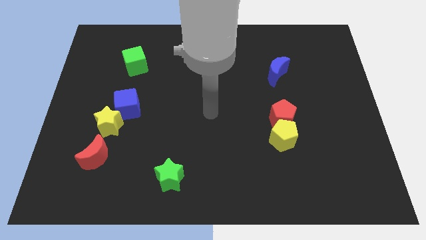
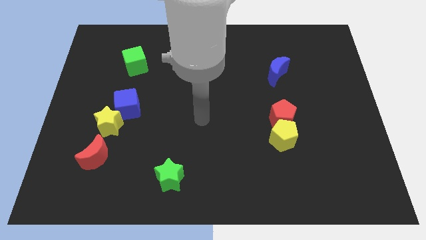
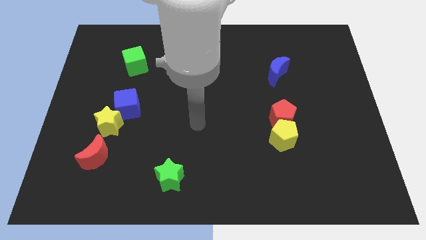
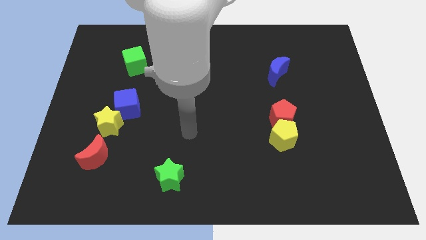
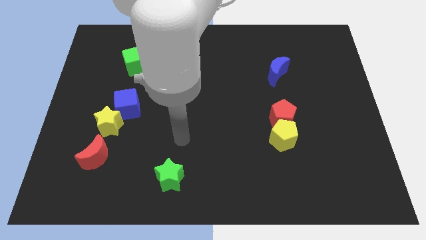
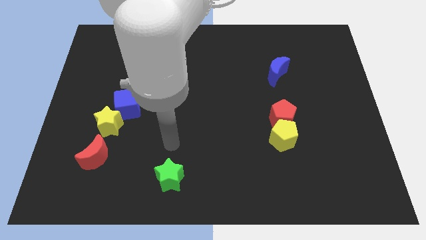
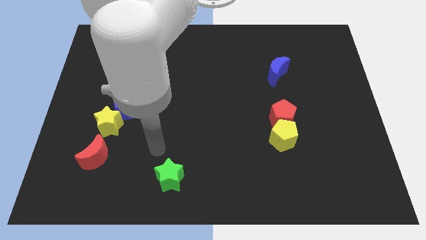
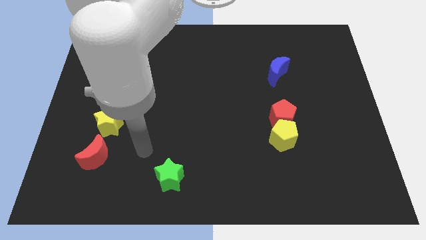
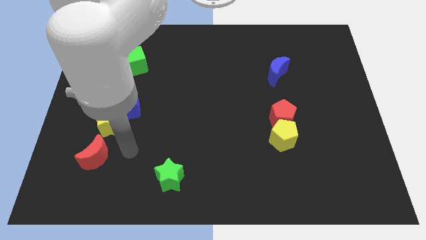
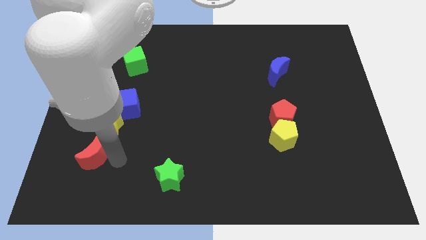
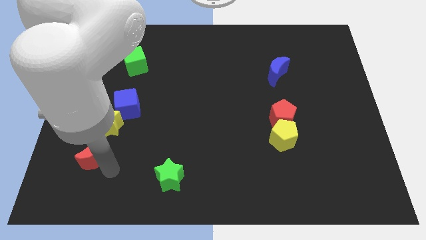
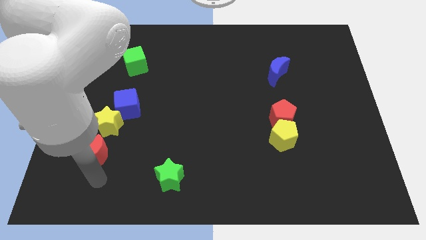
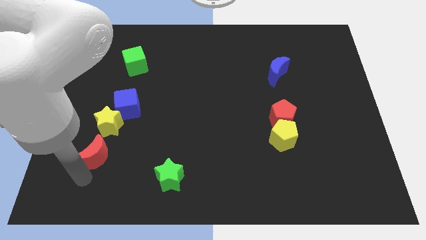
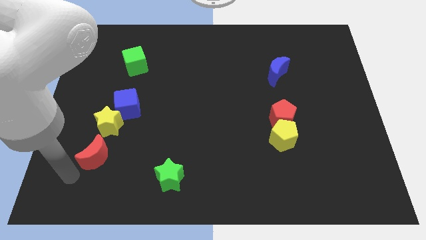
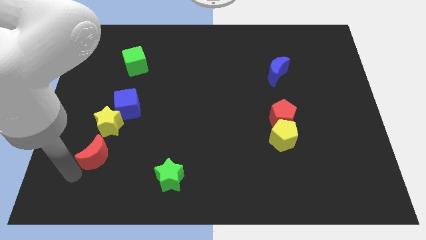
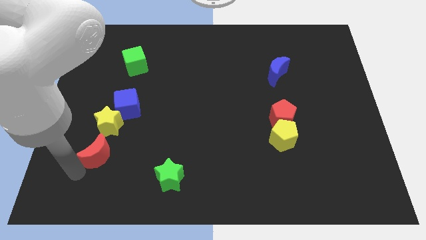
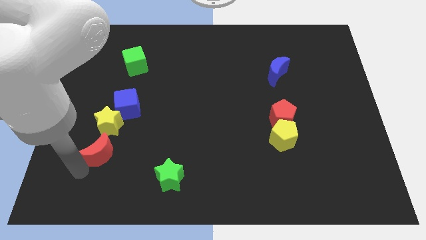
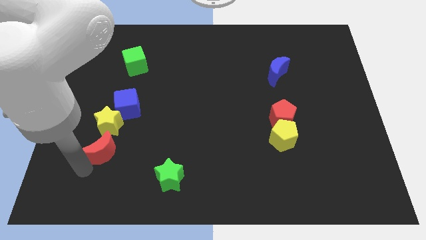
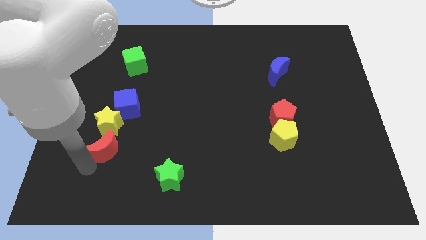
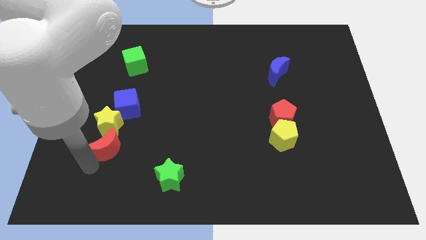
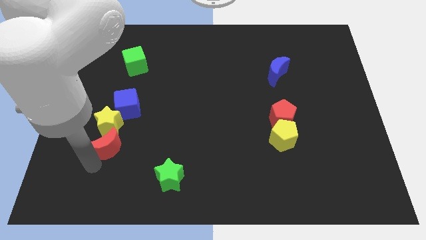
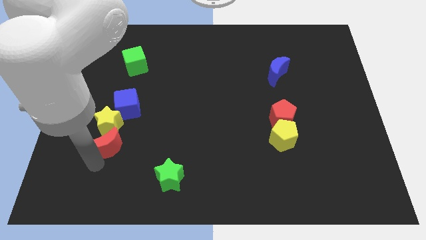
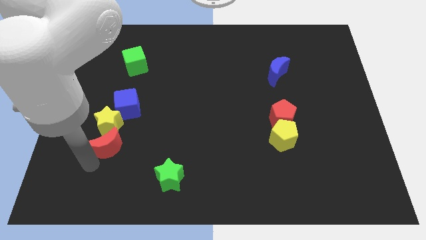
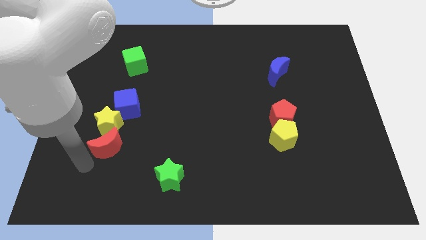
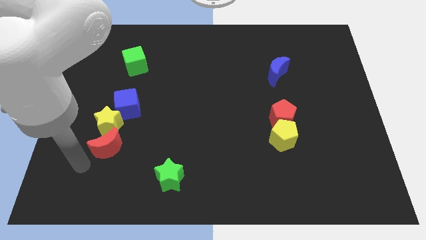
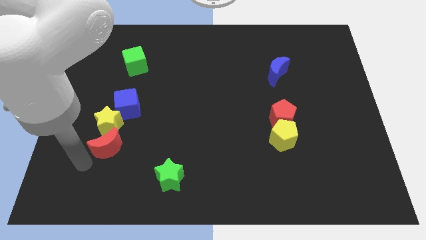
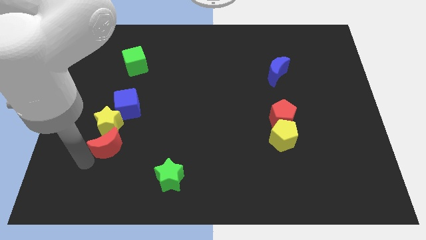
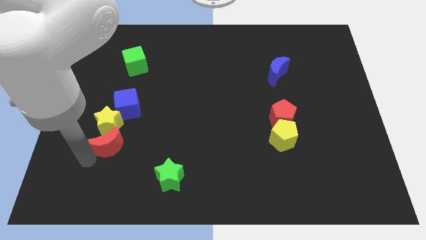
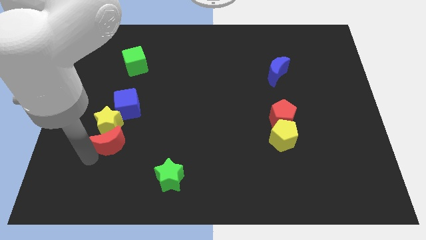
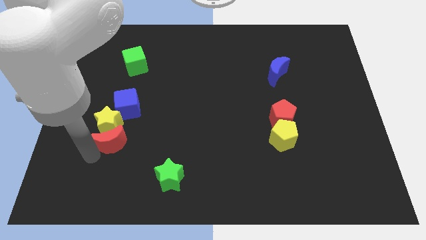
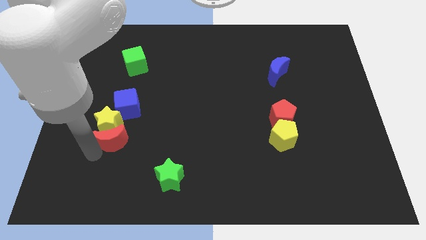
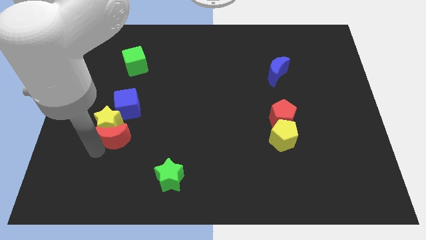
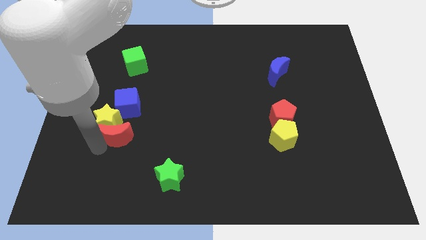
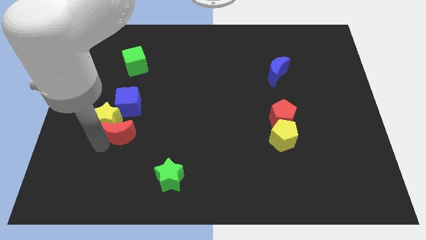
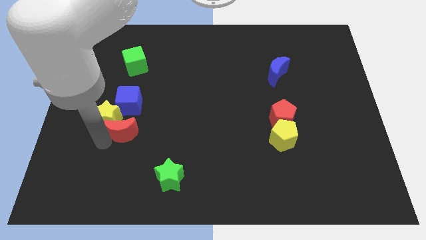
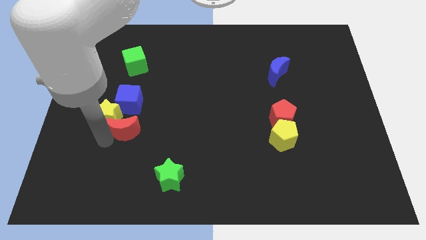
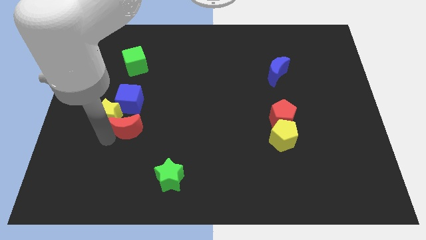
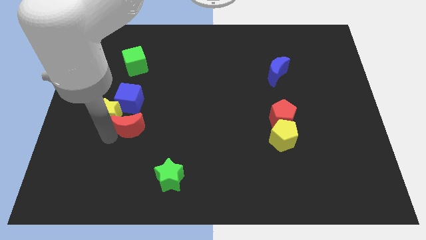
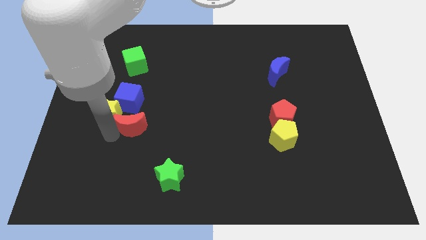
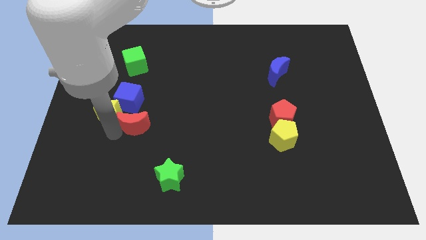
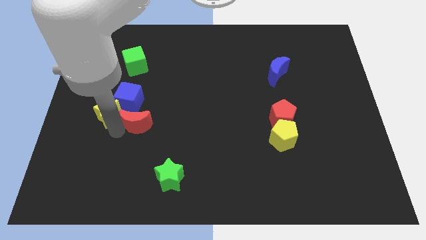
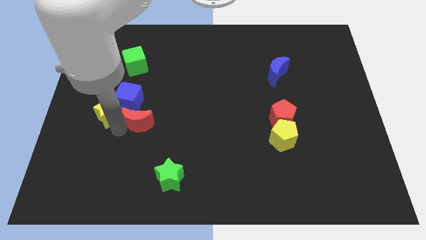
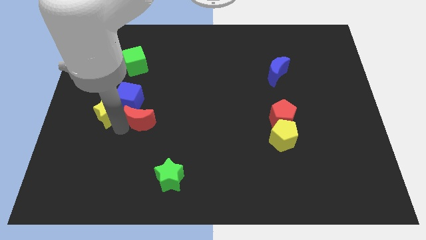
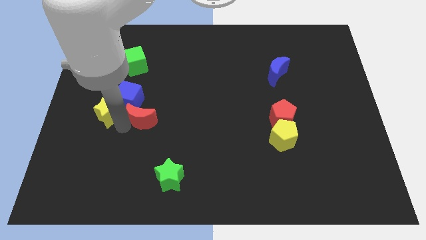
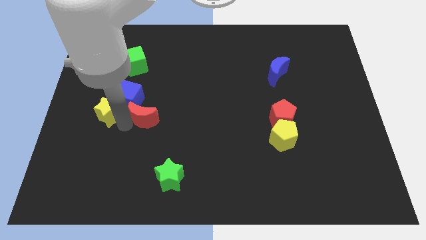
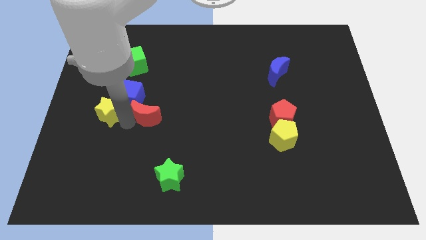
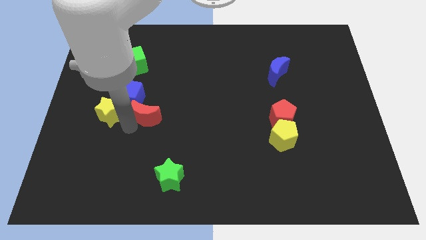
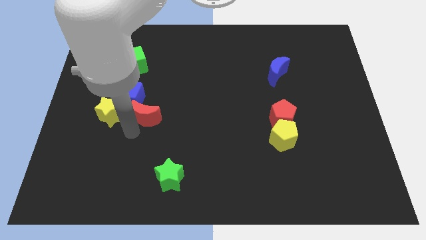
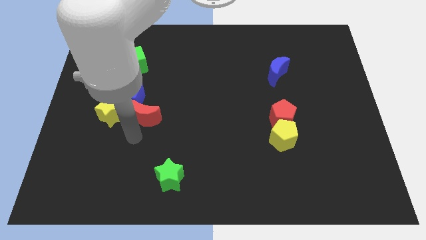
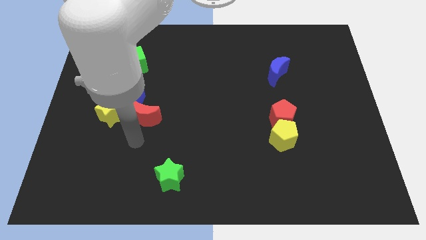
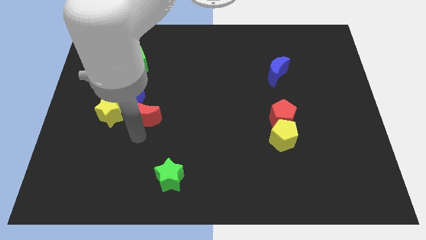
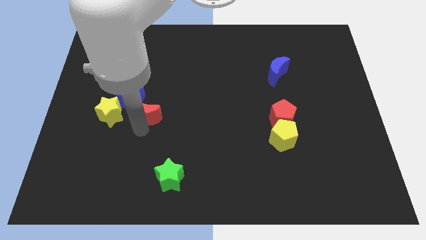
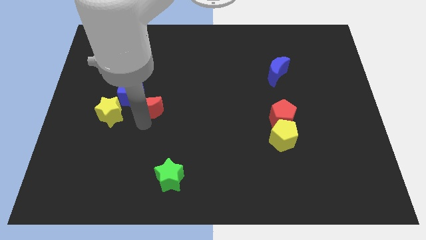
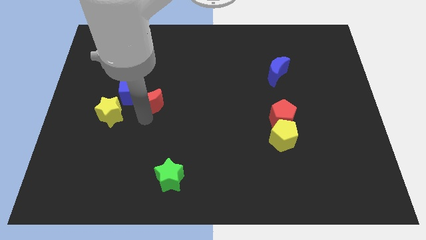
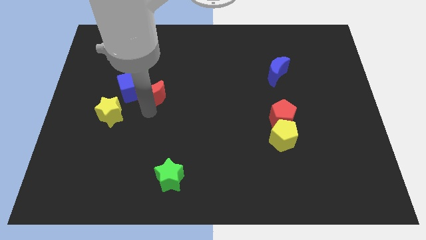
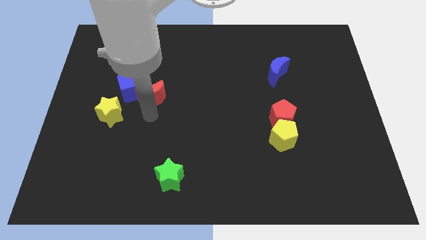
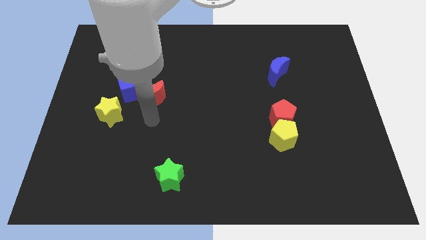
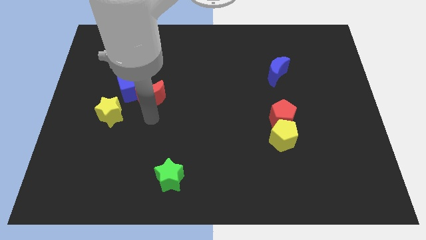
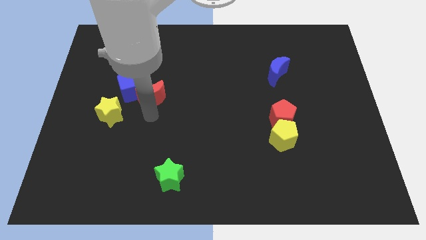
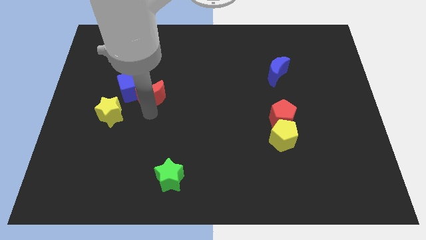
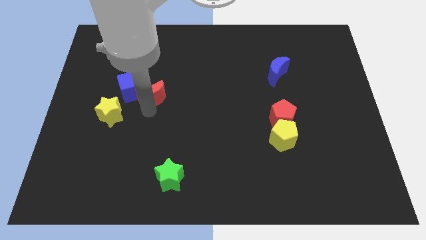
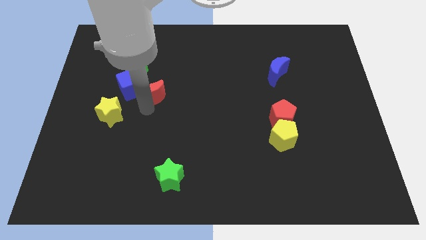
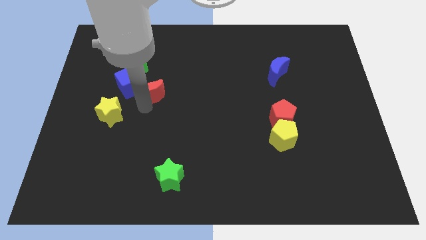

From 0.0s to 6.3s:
slide the red moon to the bottom right of the green cube

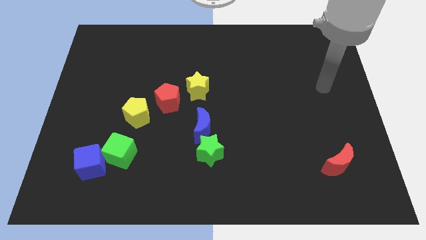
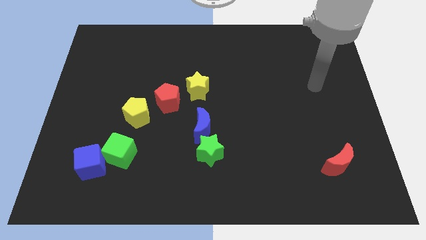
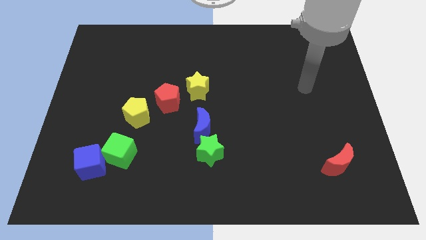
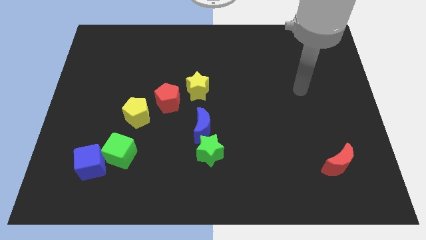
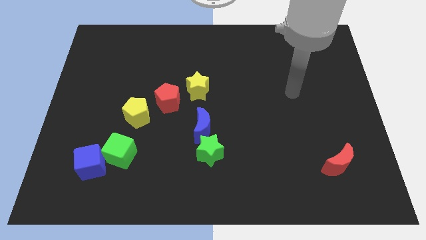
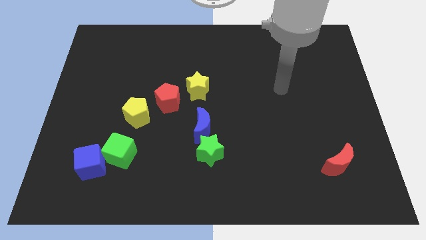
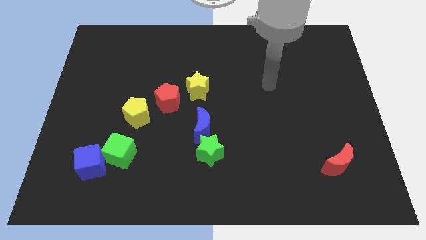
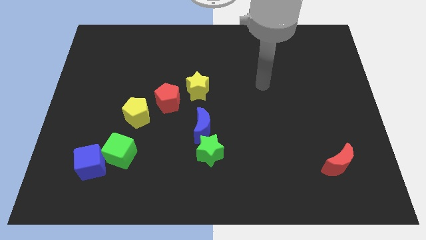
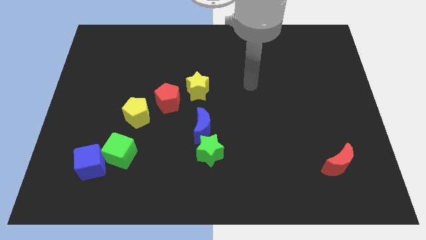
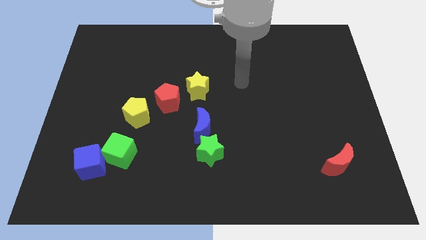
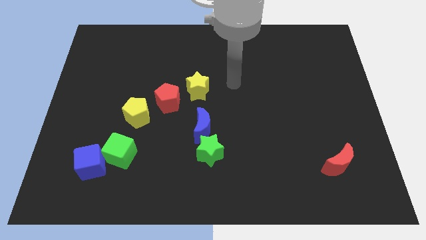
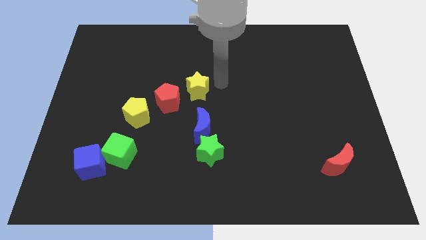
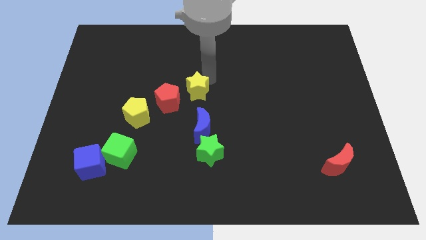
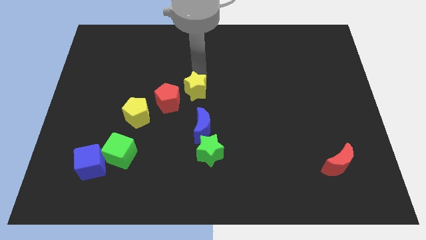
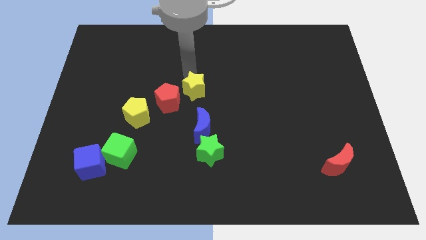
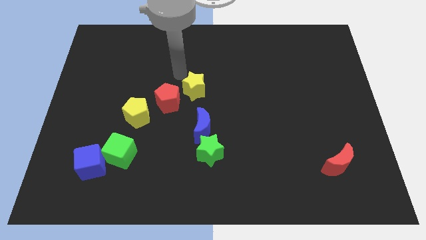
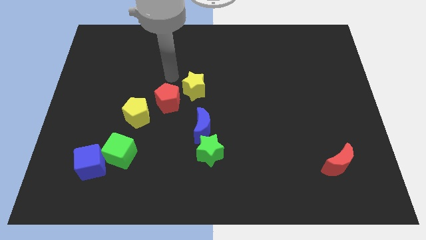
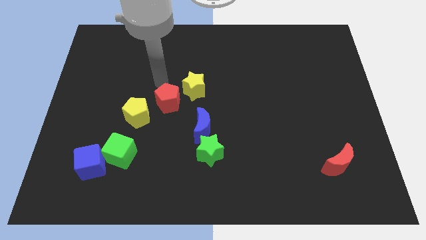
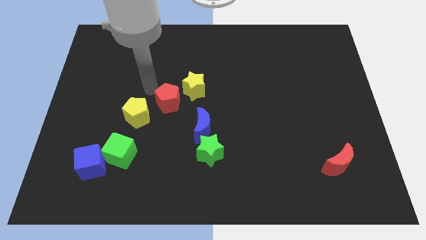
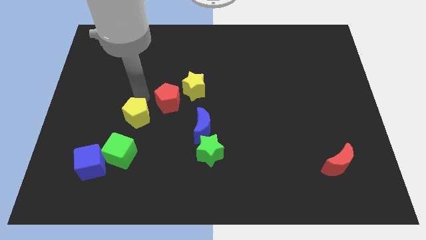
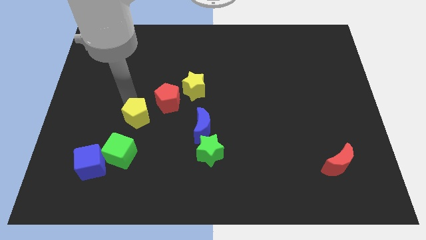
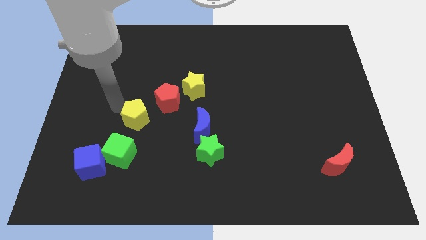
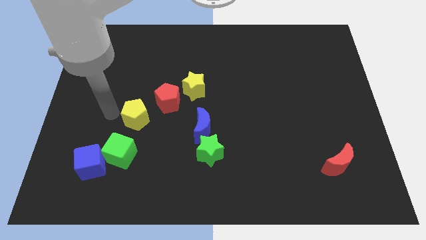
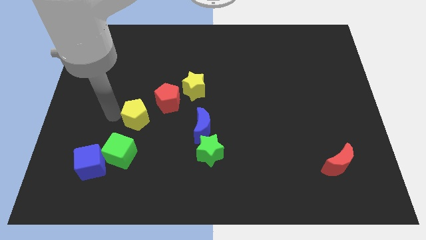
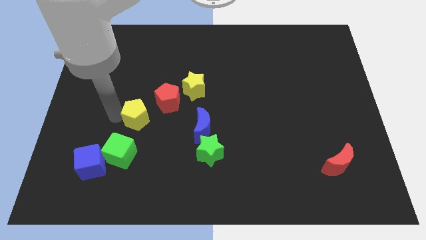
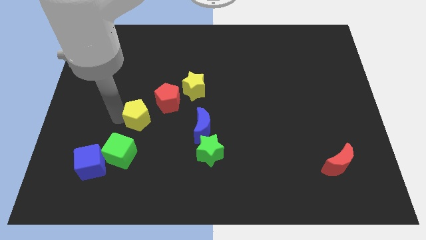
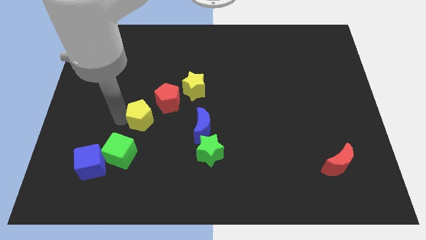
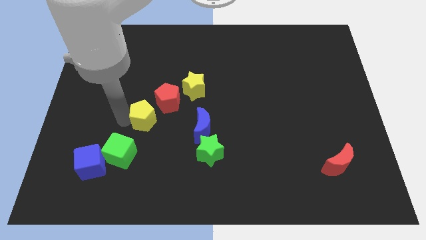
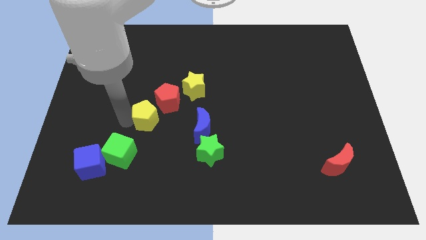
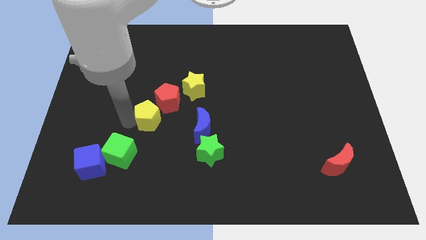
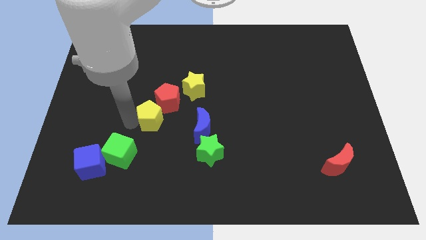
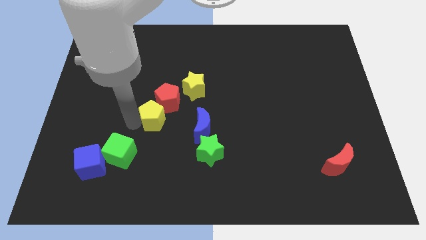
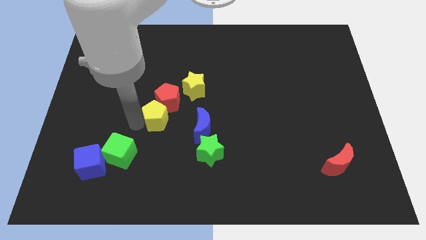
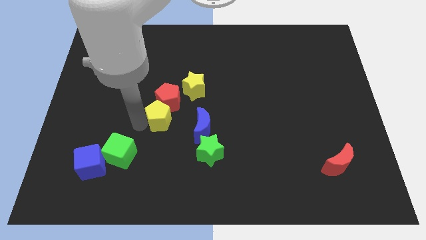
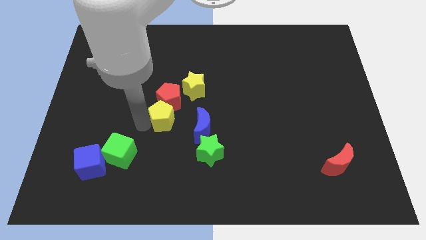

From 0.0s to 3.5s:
move the yellow pentagon diagonally up and to the left of the blue moon
